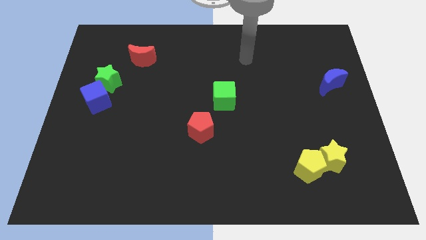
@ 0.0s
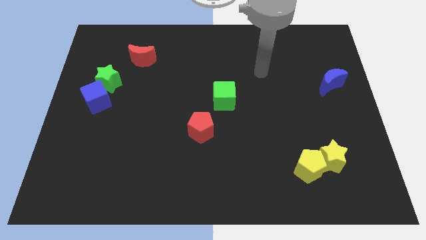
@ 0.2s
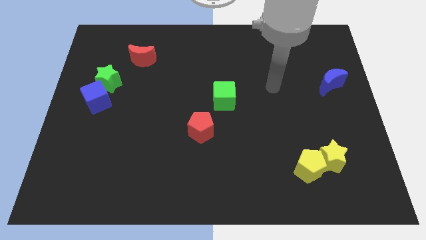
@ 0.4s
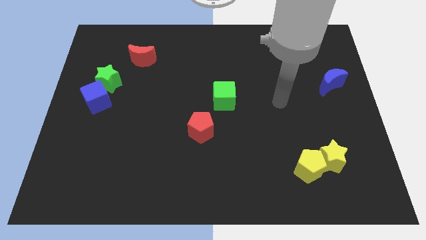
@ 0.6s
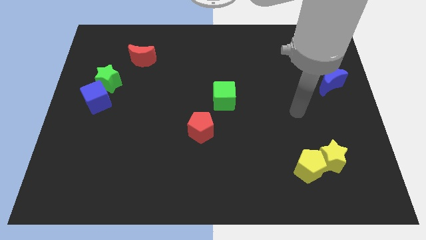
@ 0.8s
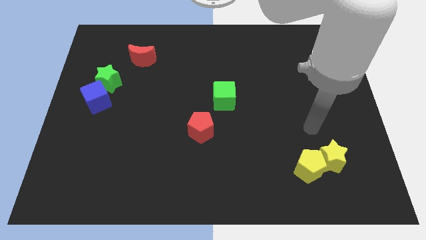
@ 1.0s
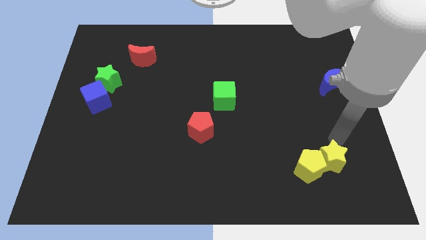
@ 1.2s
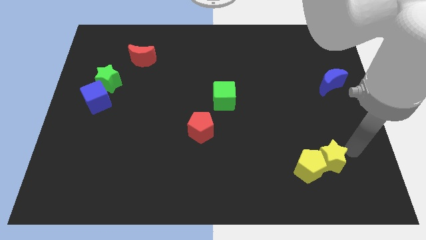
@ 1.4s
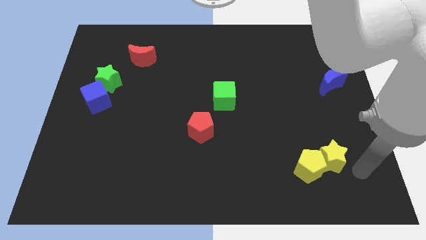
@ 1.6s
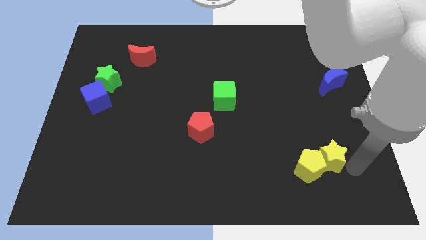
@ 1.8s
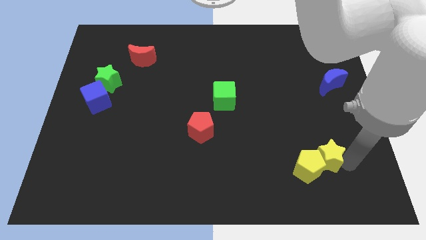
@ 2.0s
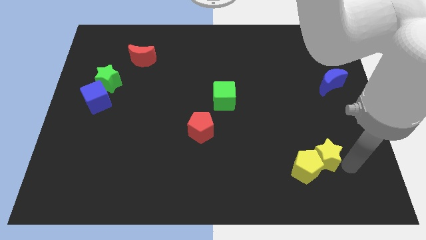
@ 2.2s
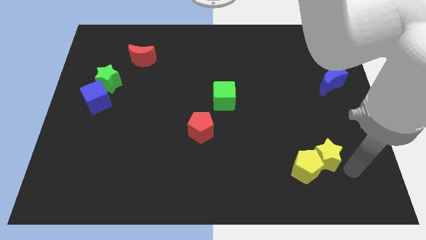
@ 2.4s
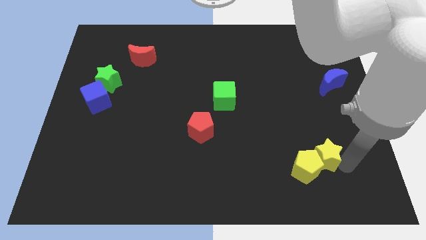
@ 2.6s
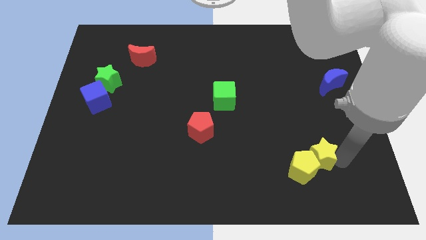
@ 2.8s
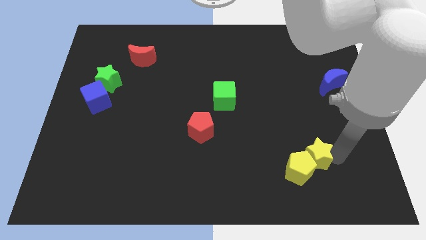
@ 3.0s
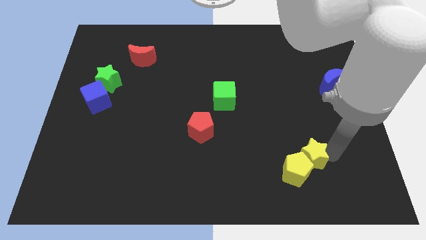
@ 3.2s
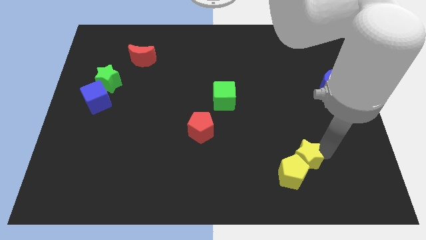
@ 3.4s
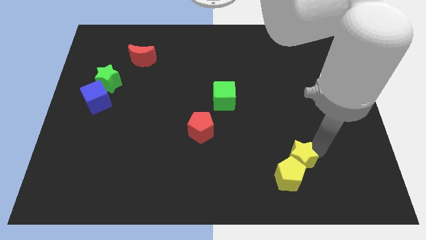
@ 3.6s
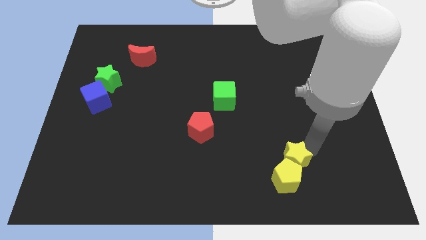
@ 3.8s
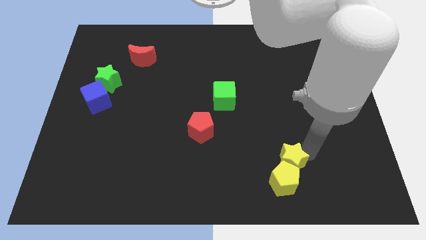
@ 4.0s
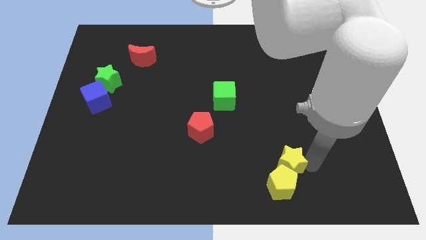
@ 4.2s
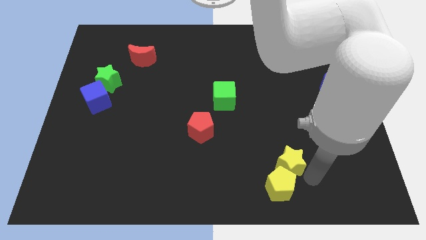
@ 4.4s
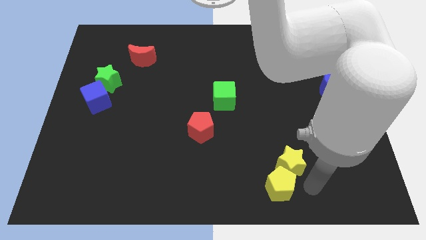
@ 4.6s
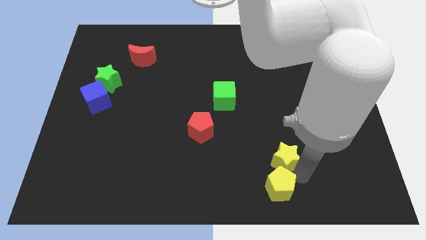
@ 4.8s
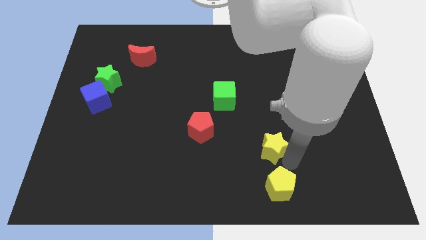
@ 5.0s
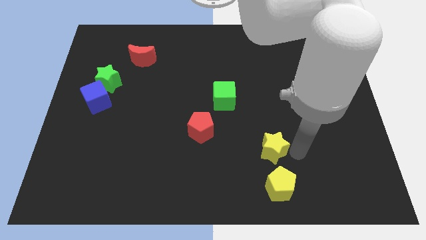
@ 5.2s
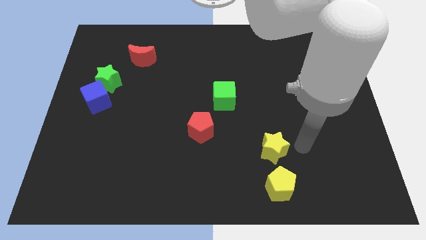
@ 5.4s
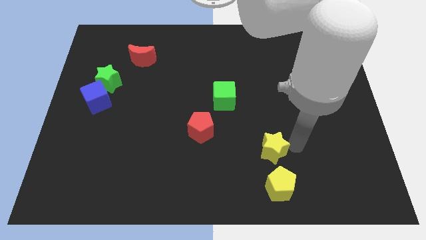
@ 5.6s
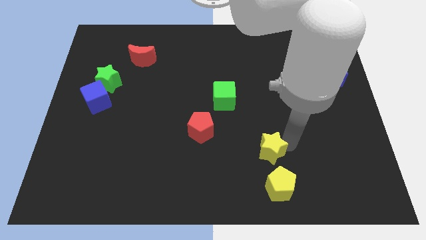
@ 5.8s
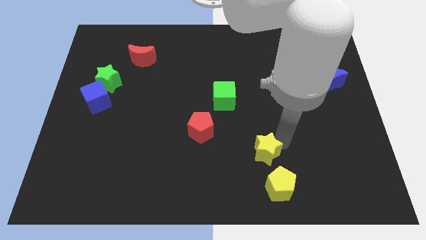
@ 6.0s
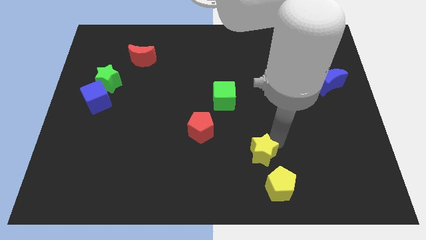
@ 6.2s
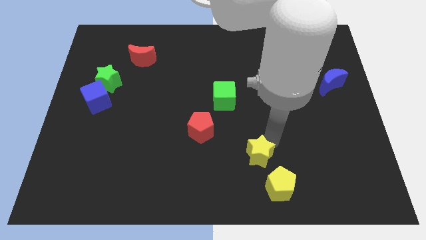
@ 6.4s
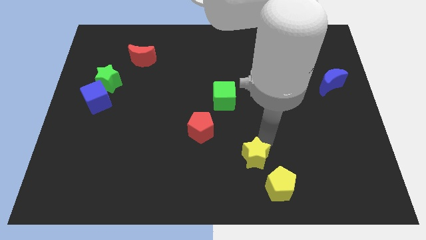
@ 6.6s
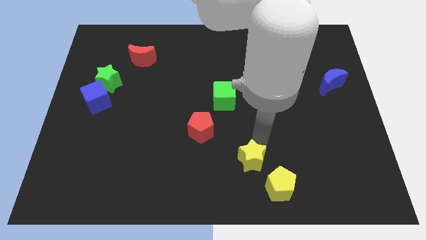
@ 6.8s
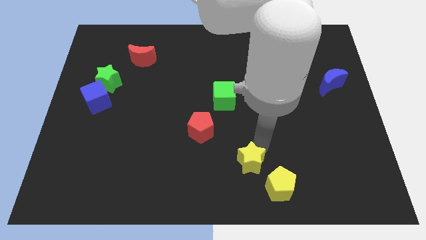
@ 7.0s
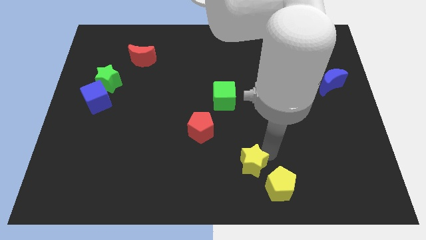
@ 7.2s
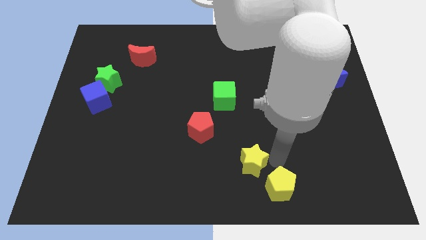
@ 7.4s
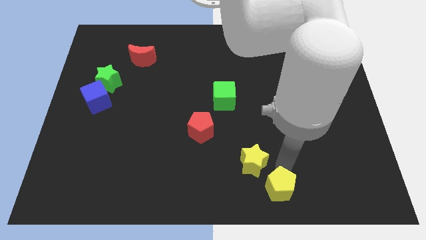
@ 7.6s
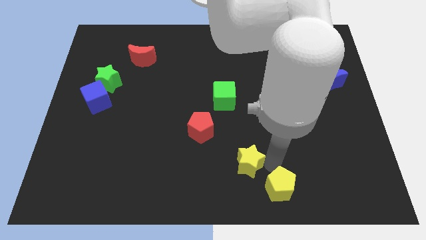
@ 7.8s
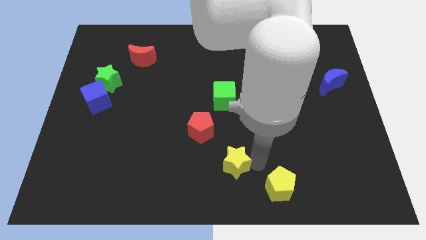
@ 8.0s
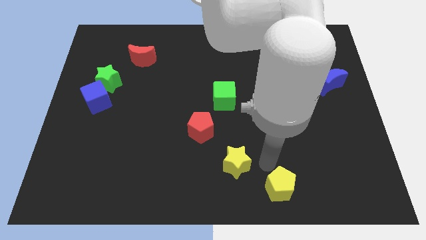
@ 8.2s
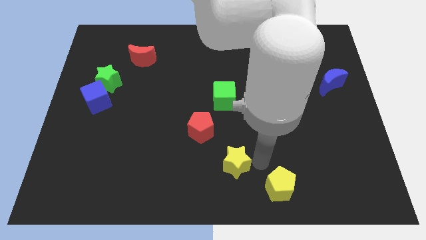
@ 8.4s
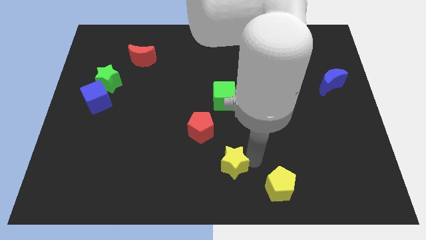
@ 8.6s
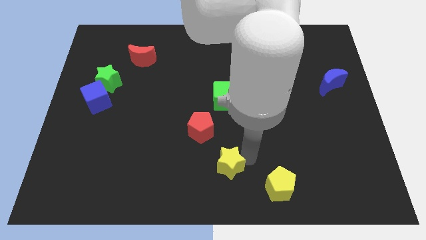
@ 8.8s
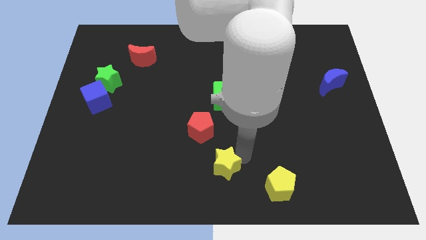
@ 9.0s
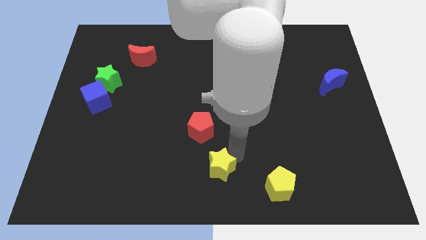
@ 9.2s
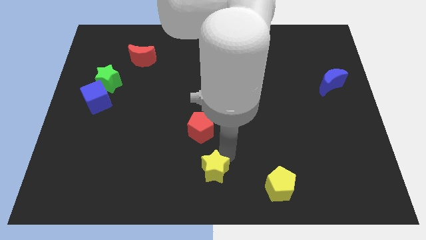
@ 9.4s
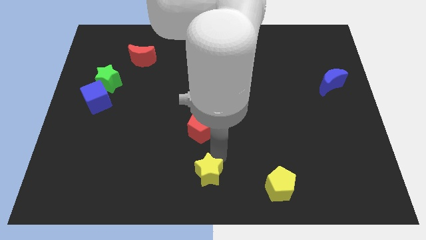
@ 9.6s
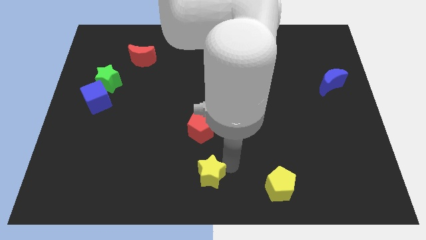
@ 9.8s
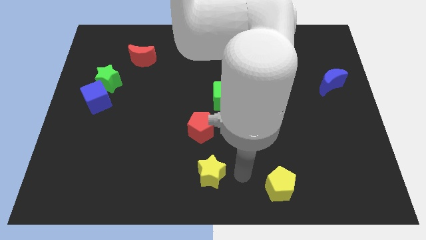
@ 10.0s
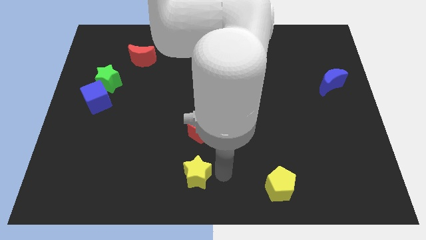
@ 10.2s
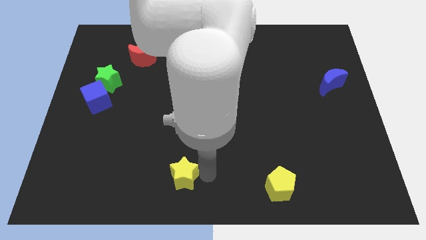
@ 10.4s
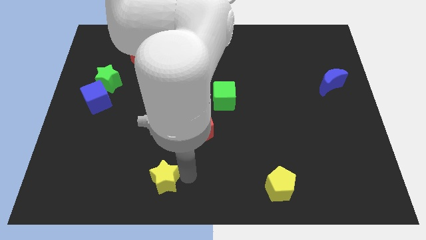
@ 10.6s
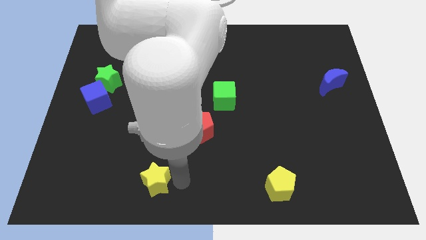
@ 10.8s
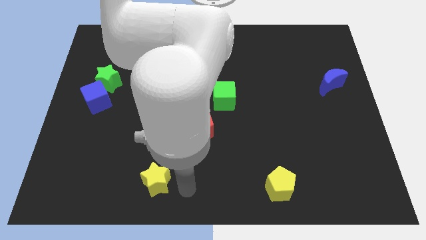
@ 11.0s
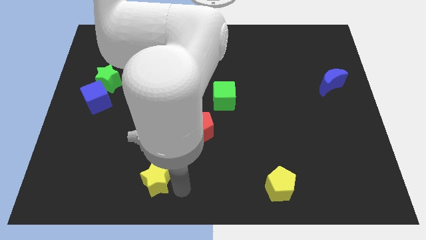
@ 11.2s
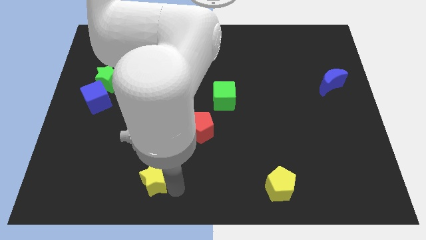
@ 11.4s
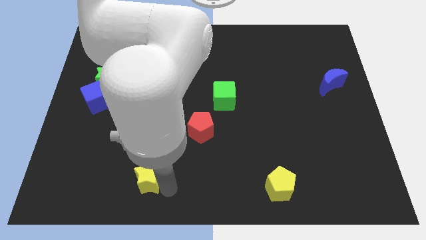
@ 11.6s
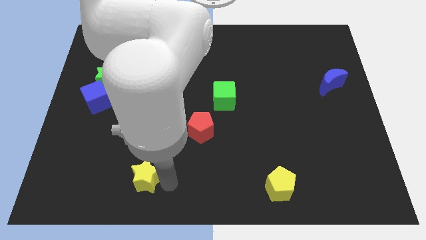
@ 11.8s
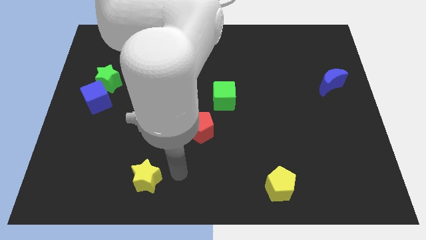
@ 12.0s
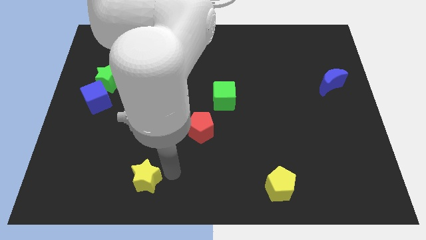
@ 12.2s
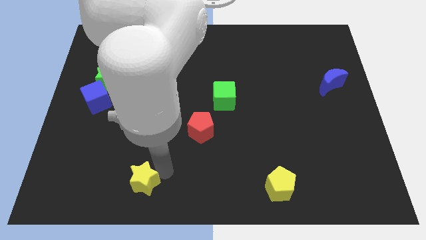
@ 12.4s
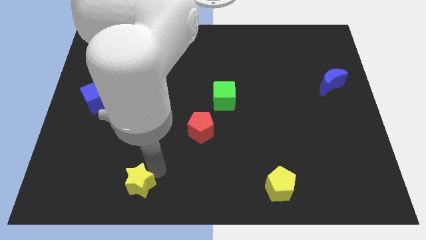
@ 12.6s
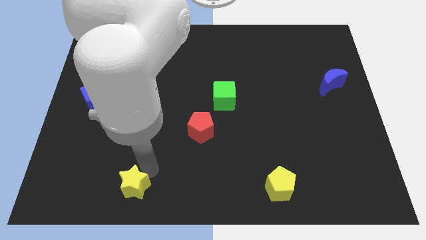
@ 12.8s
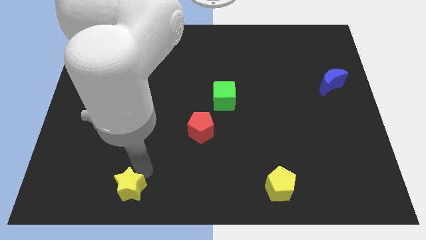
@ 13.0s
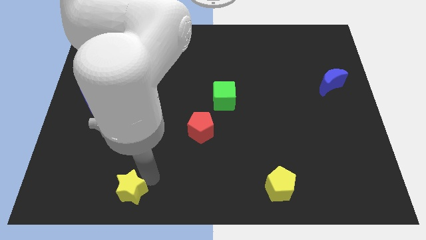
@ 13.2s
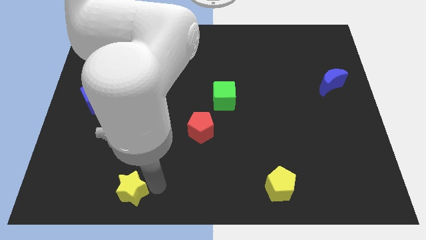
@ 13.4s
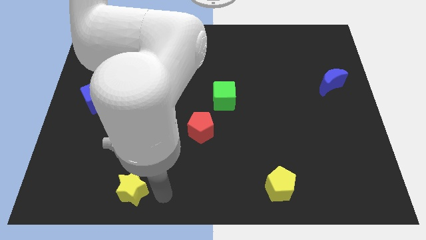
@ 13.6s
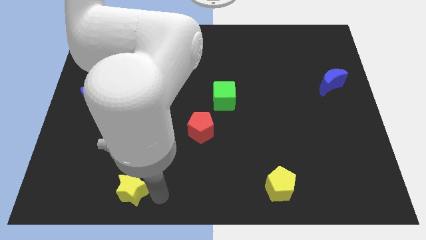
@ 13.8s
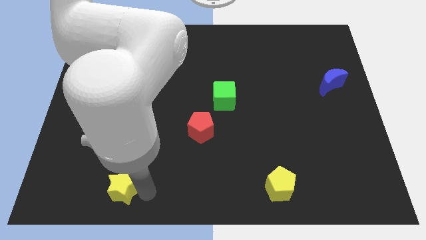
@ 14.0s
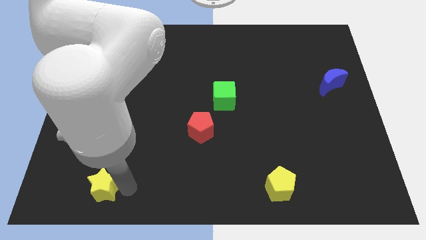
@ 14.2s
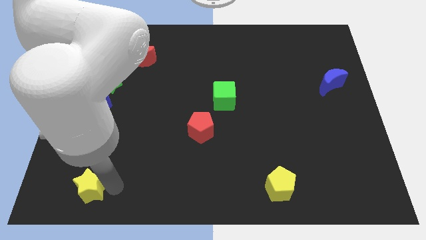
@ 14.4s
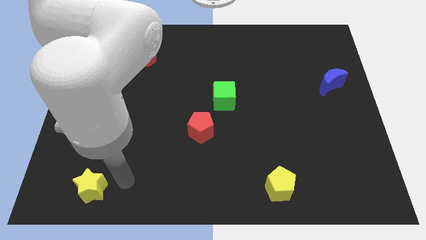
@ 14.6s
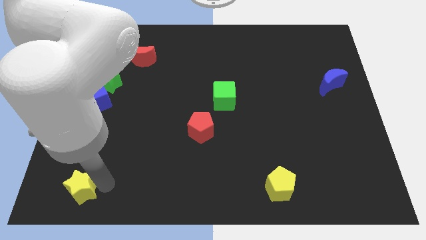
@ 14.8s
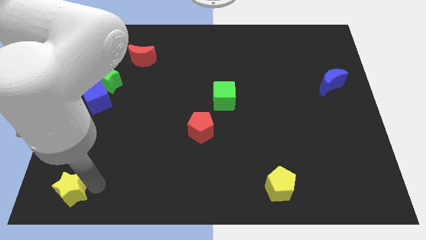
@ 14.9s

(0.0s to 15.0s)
push the yellow star to the lower left corner
